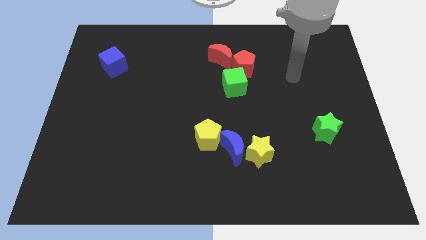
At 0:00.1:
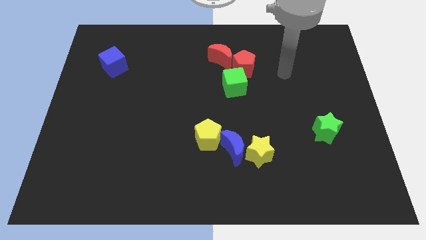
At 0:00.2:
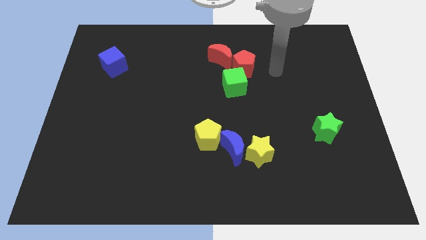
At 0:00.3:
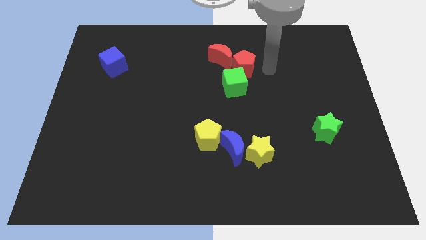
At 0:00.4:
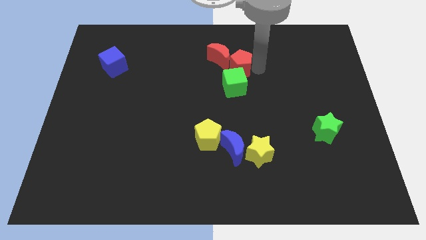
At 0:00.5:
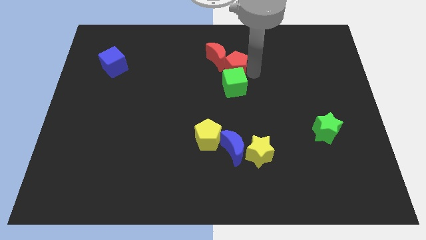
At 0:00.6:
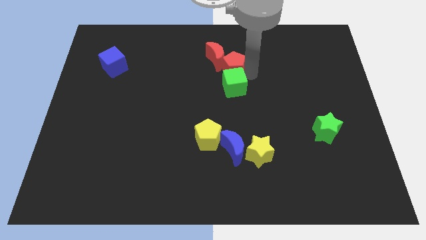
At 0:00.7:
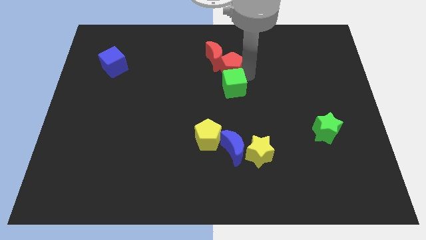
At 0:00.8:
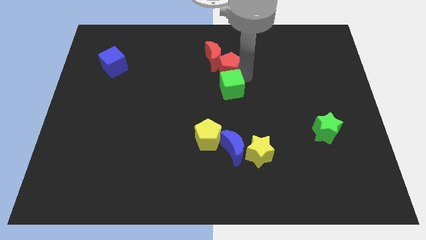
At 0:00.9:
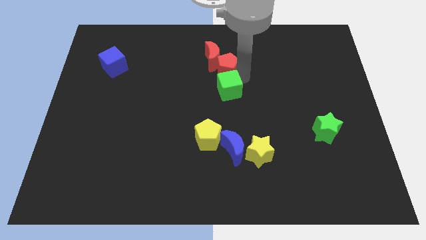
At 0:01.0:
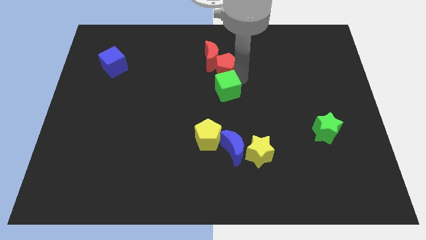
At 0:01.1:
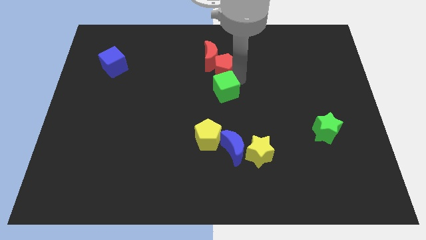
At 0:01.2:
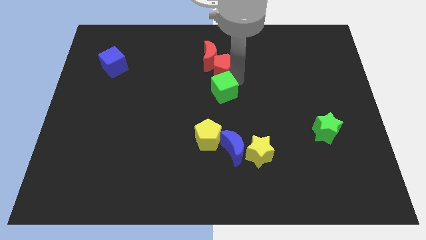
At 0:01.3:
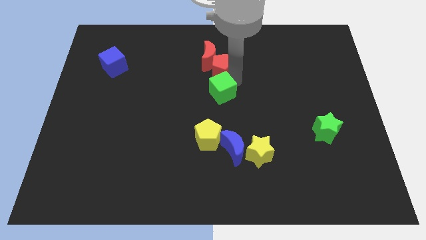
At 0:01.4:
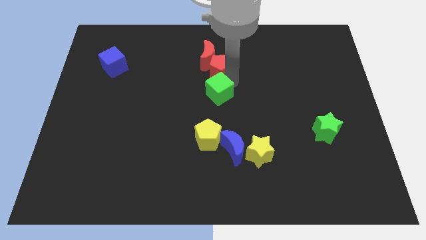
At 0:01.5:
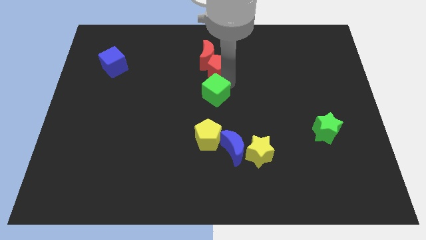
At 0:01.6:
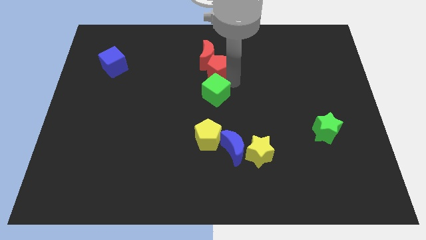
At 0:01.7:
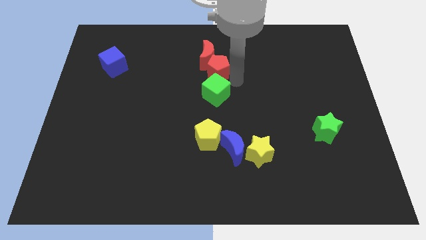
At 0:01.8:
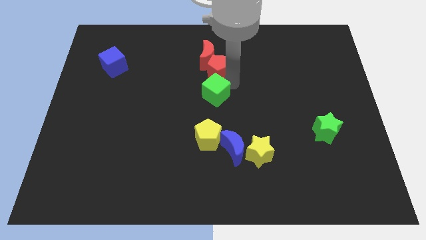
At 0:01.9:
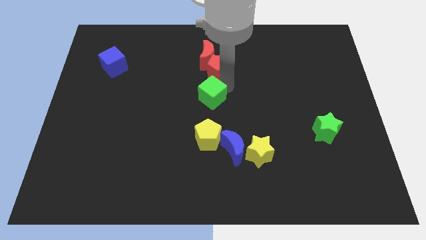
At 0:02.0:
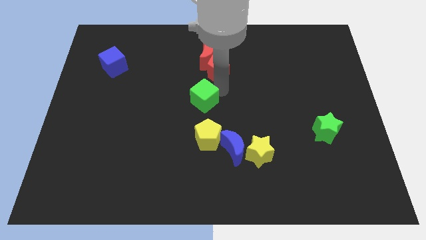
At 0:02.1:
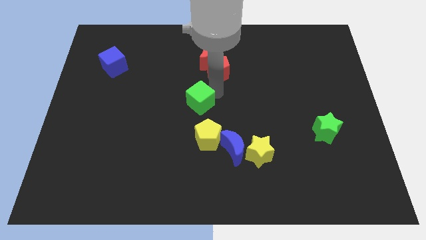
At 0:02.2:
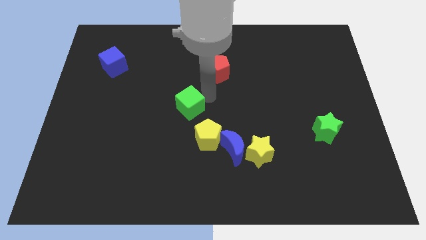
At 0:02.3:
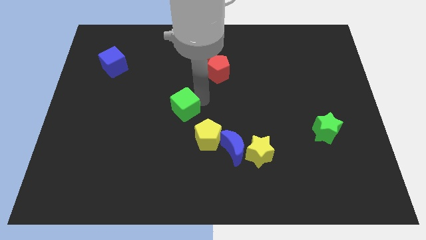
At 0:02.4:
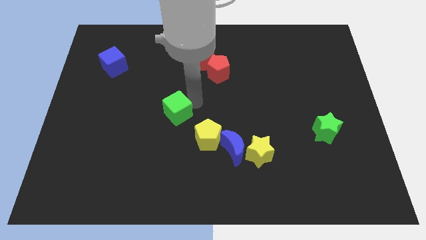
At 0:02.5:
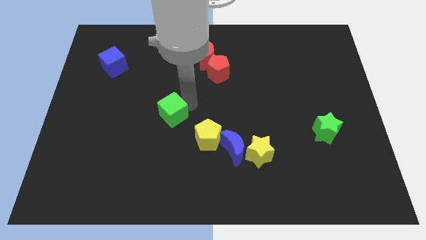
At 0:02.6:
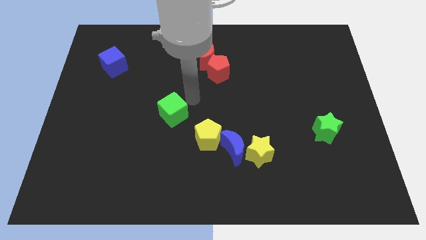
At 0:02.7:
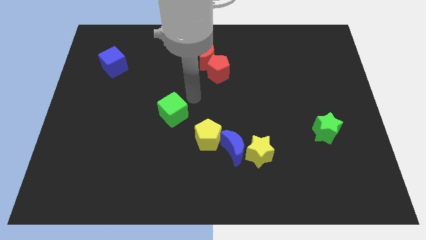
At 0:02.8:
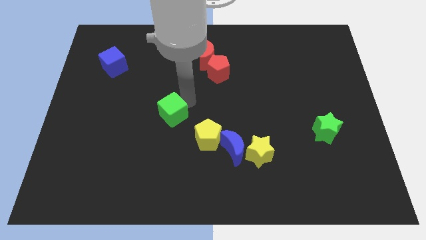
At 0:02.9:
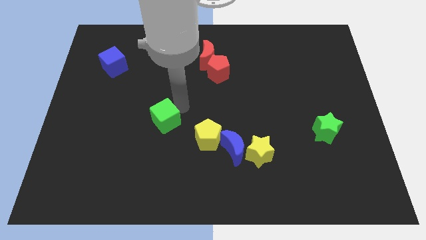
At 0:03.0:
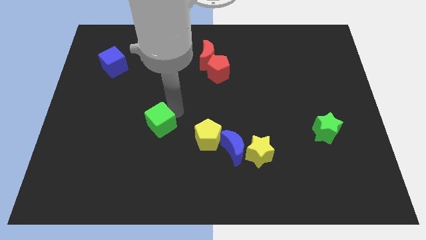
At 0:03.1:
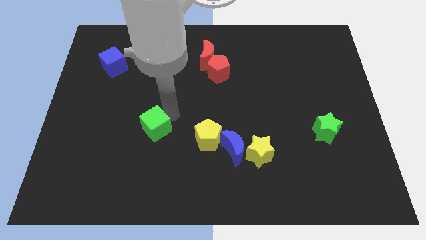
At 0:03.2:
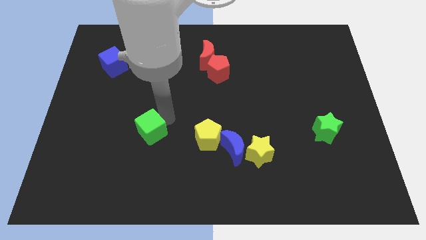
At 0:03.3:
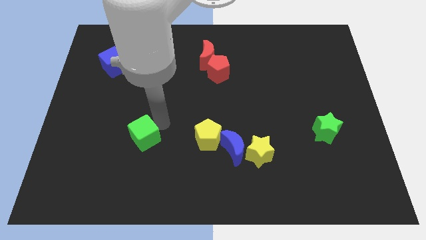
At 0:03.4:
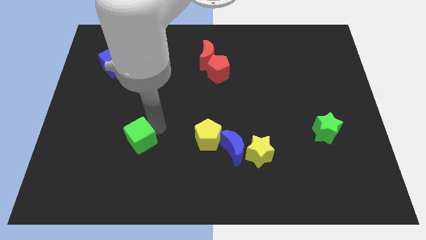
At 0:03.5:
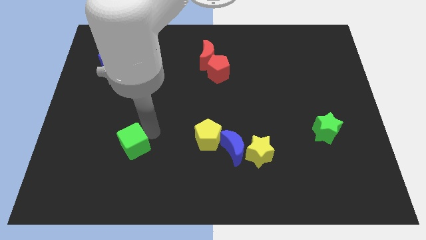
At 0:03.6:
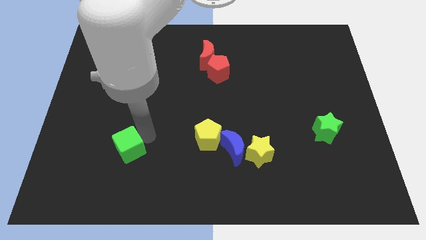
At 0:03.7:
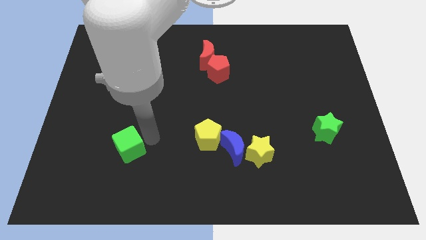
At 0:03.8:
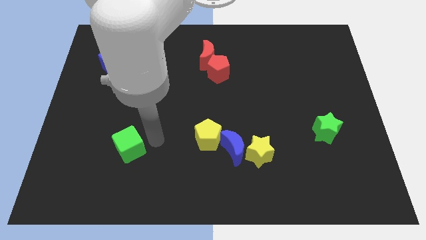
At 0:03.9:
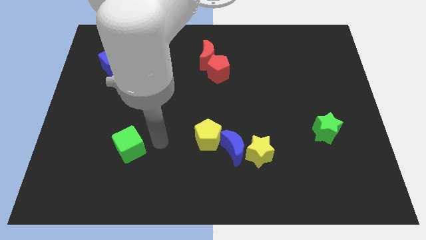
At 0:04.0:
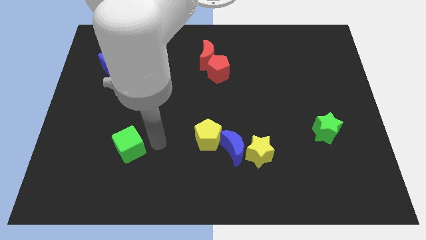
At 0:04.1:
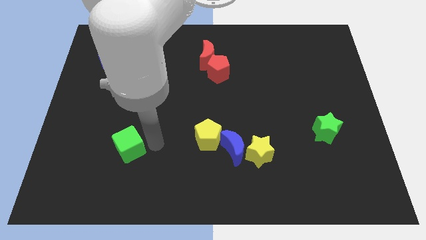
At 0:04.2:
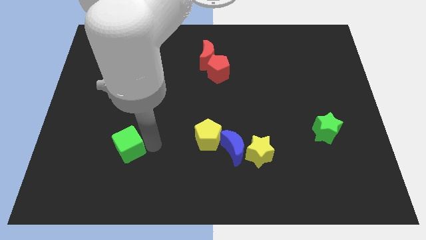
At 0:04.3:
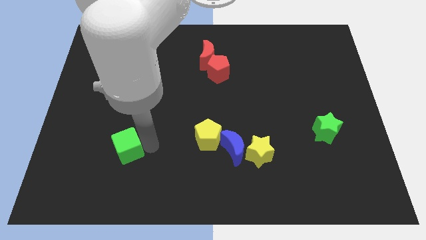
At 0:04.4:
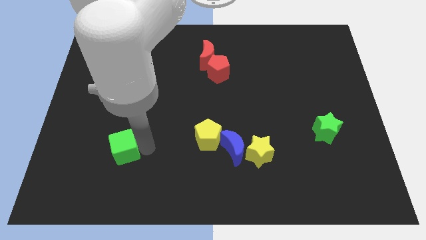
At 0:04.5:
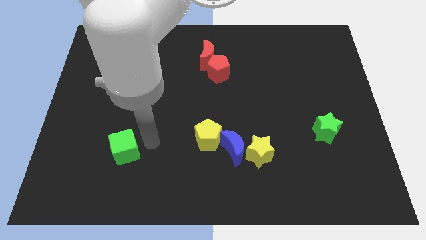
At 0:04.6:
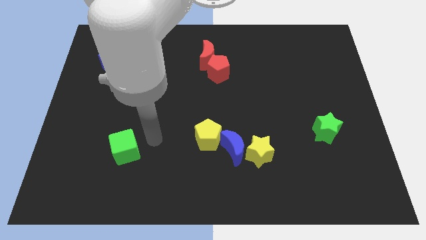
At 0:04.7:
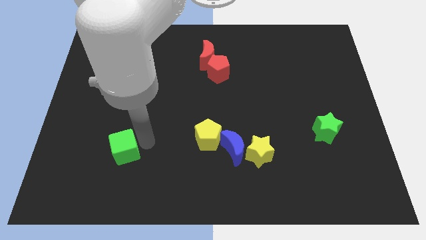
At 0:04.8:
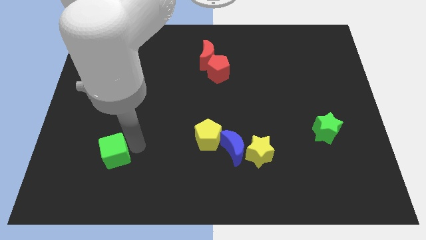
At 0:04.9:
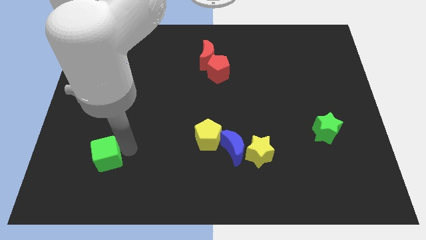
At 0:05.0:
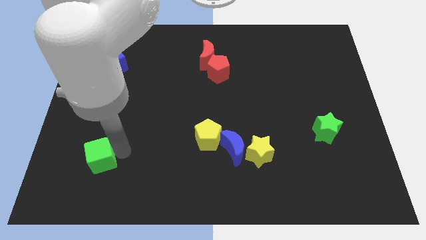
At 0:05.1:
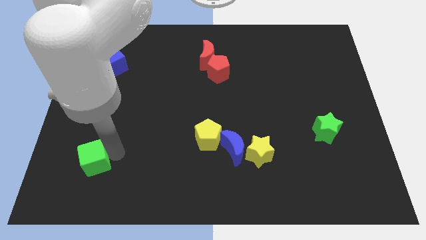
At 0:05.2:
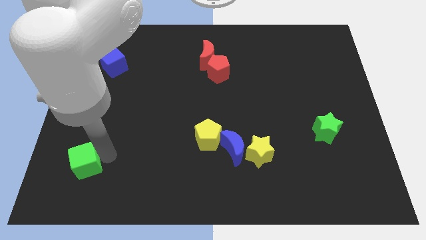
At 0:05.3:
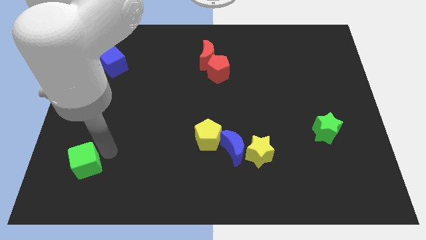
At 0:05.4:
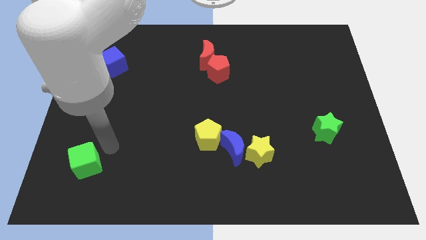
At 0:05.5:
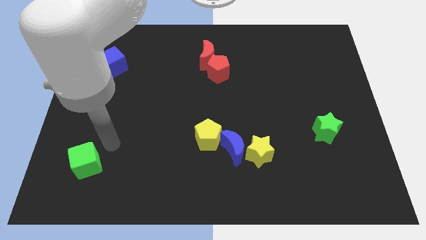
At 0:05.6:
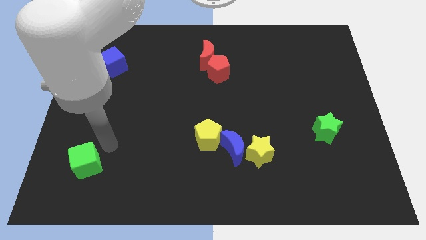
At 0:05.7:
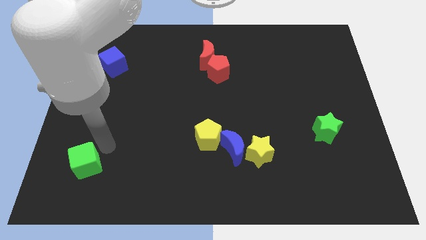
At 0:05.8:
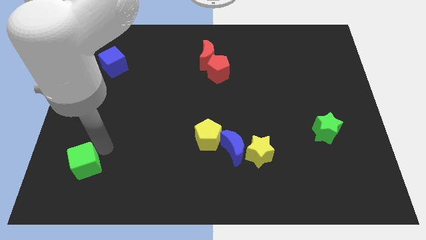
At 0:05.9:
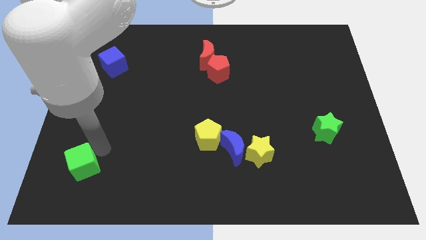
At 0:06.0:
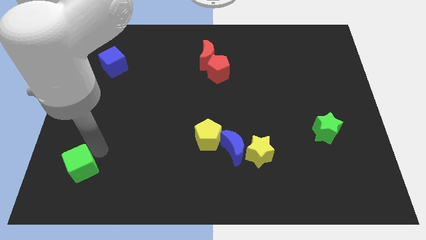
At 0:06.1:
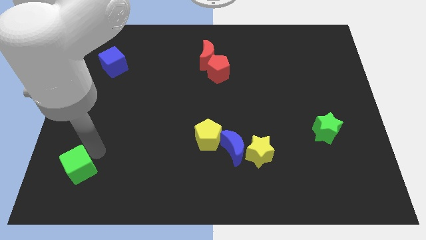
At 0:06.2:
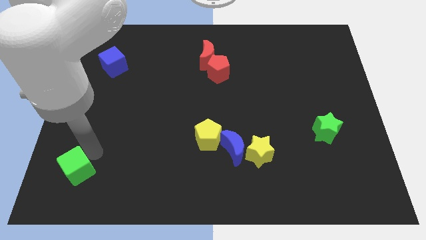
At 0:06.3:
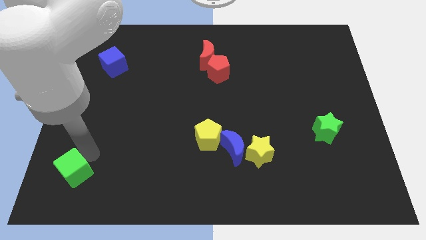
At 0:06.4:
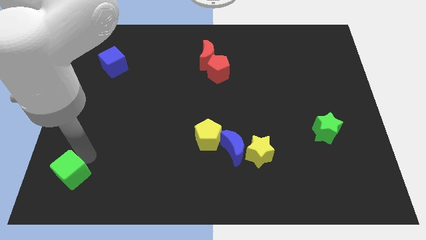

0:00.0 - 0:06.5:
push the green cube to the bottom left corner

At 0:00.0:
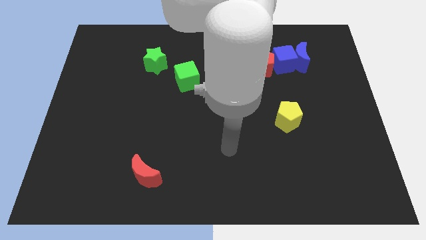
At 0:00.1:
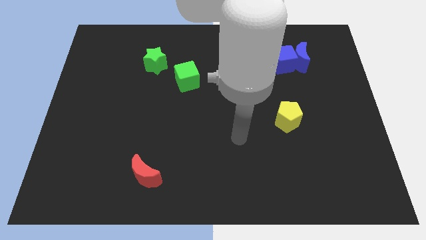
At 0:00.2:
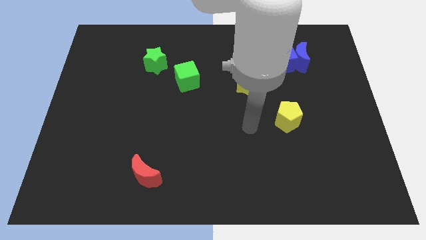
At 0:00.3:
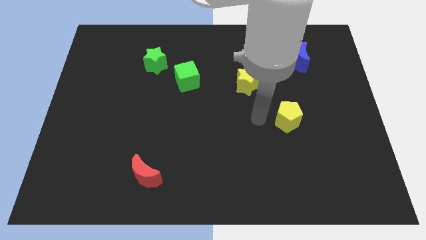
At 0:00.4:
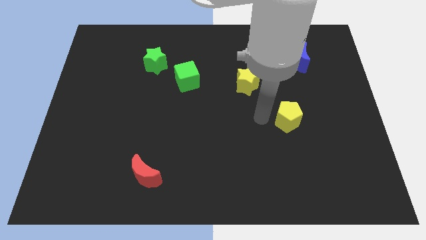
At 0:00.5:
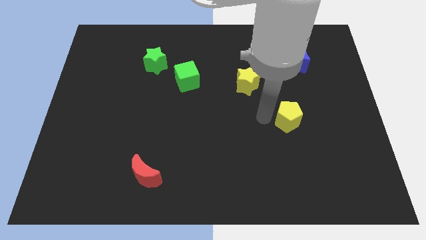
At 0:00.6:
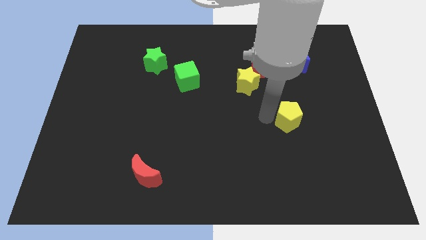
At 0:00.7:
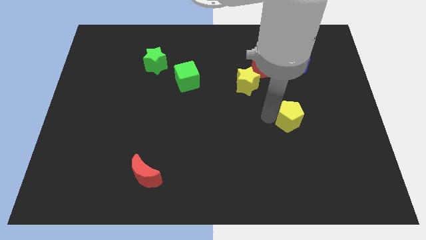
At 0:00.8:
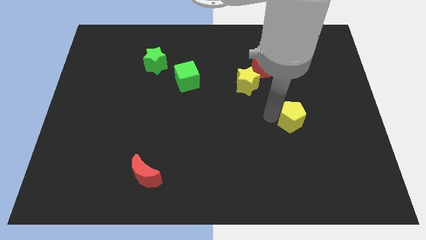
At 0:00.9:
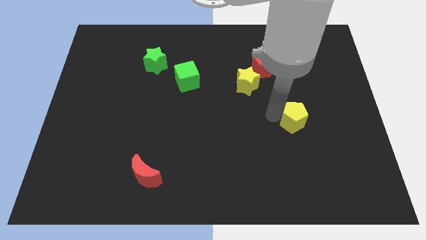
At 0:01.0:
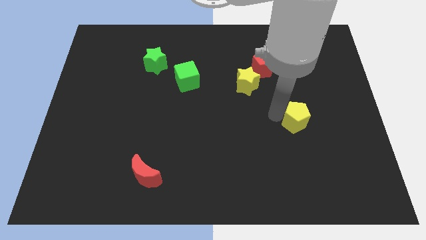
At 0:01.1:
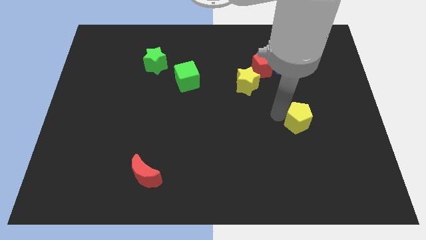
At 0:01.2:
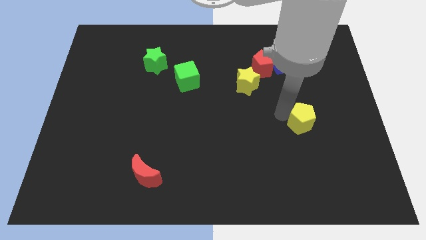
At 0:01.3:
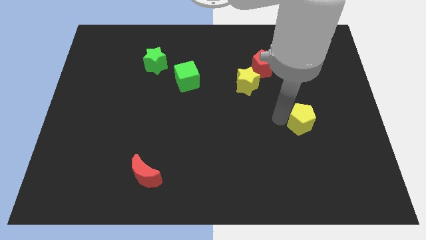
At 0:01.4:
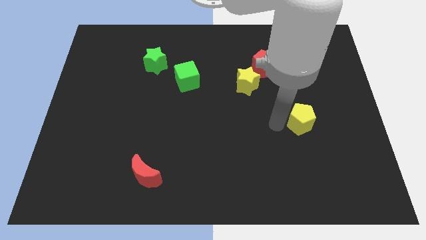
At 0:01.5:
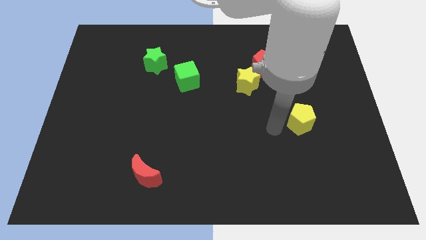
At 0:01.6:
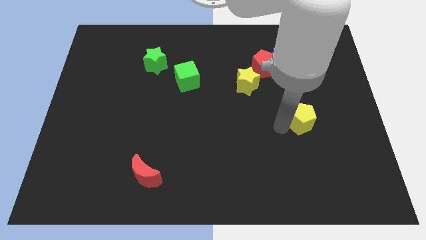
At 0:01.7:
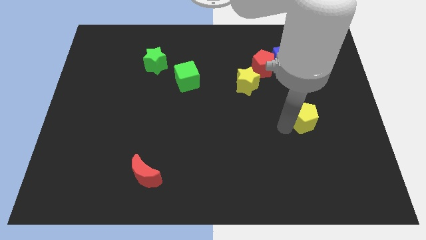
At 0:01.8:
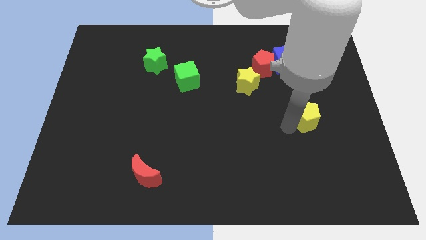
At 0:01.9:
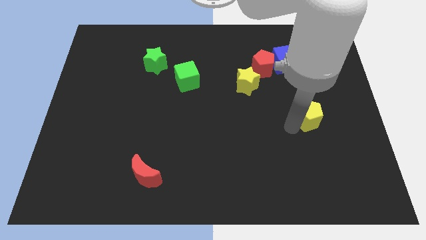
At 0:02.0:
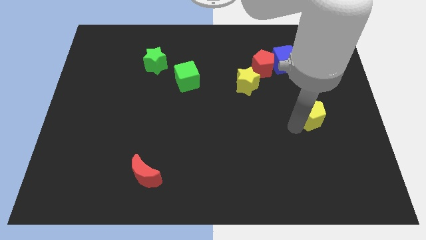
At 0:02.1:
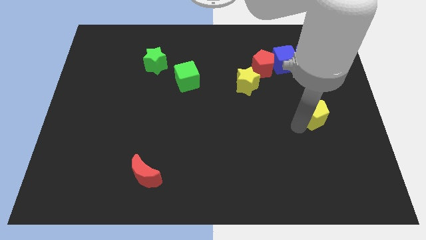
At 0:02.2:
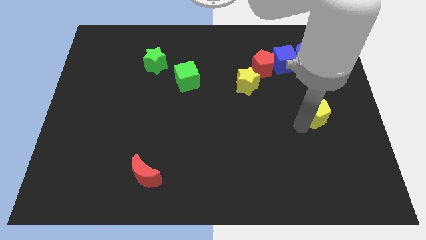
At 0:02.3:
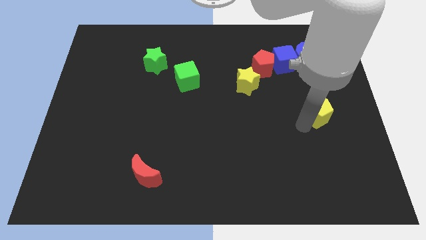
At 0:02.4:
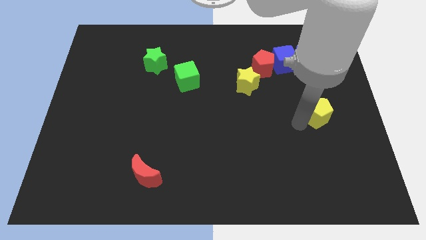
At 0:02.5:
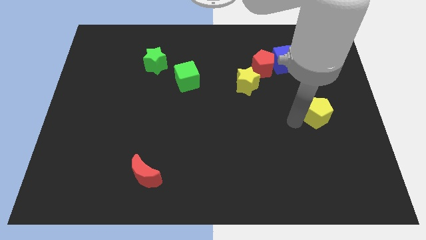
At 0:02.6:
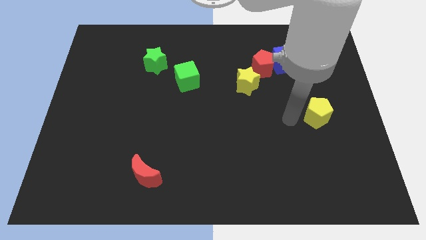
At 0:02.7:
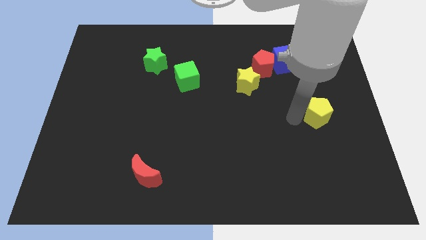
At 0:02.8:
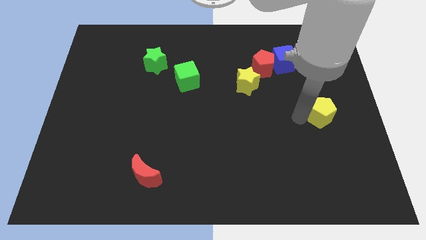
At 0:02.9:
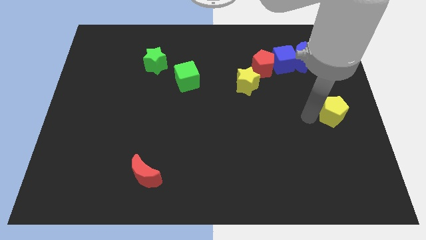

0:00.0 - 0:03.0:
push the yellow pentagon to the center right
